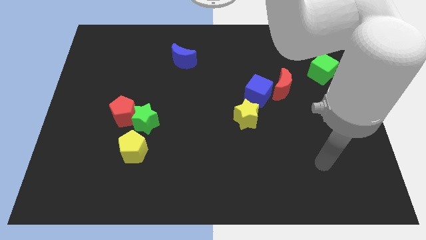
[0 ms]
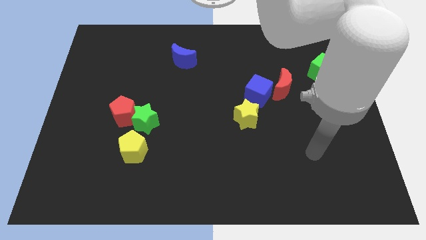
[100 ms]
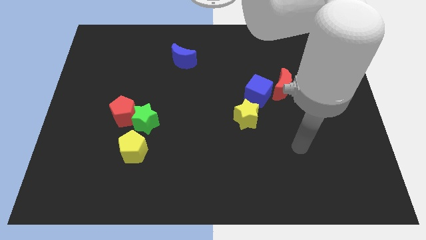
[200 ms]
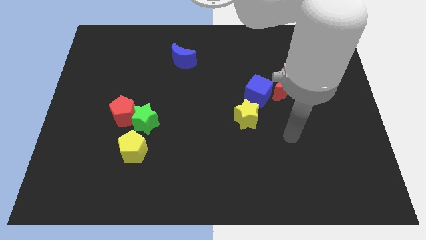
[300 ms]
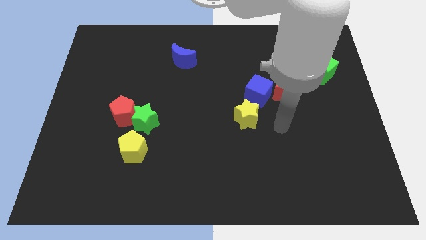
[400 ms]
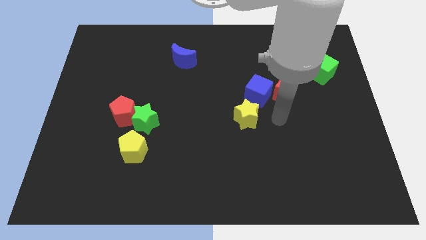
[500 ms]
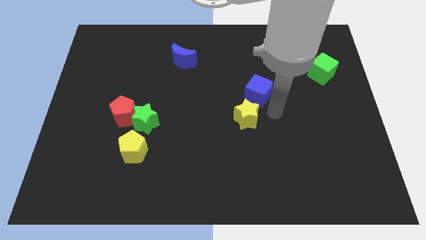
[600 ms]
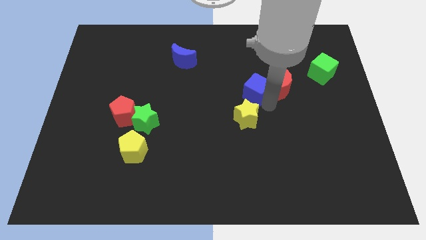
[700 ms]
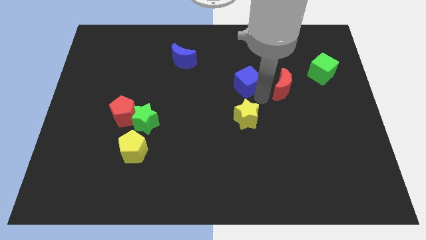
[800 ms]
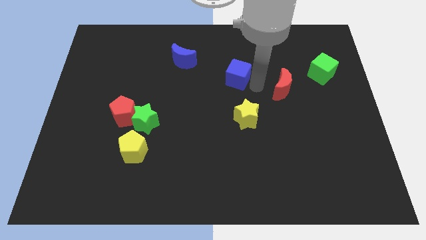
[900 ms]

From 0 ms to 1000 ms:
move the red moon away from the blue cube

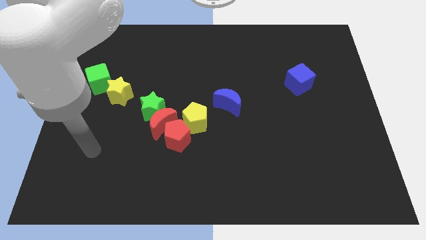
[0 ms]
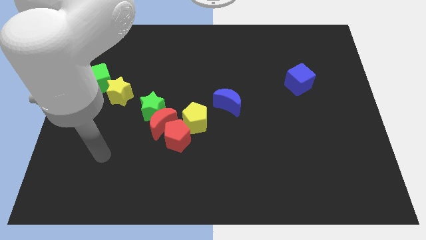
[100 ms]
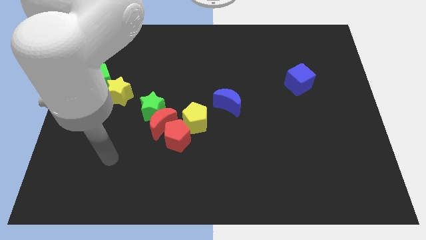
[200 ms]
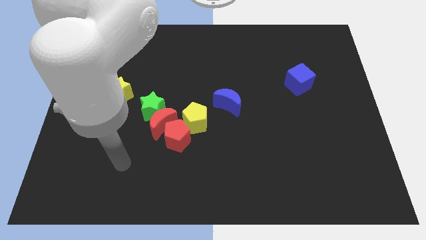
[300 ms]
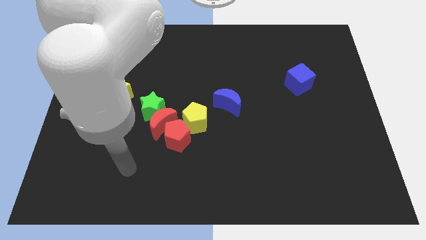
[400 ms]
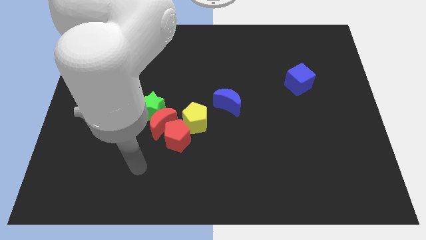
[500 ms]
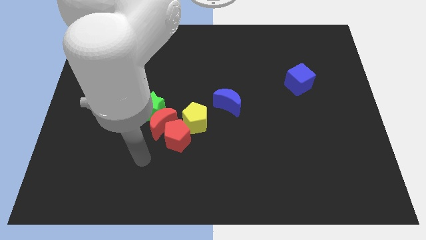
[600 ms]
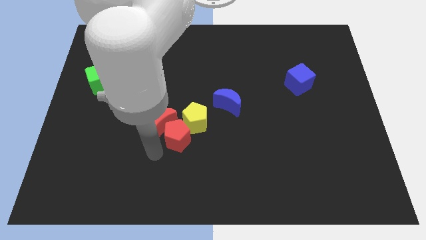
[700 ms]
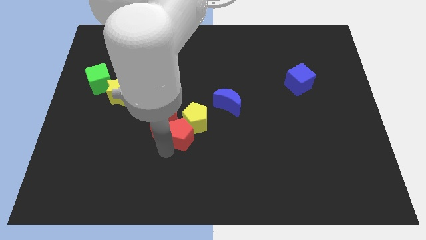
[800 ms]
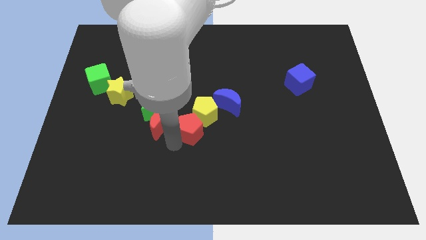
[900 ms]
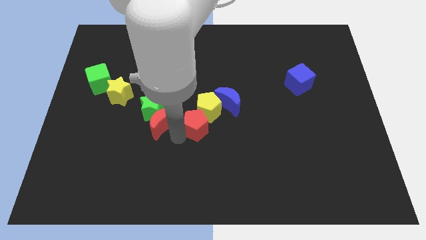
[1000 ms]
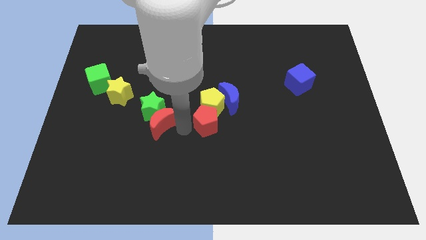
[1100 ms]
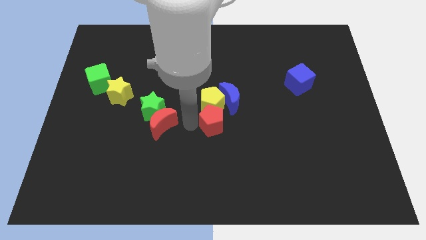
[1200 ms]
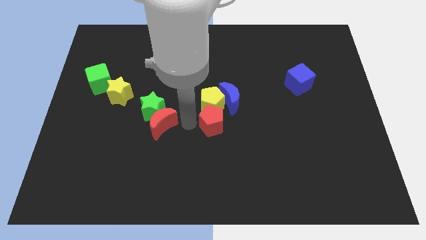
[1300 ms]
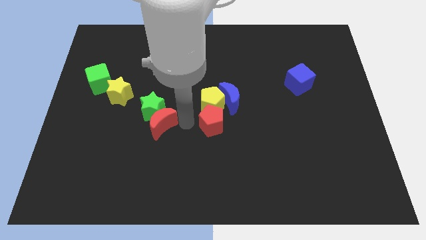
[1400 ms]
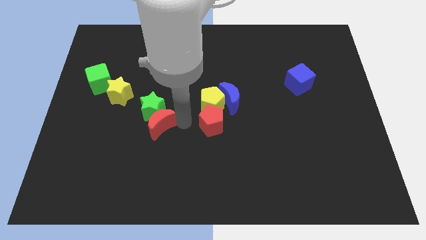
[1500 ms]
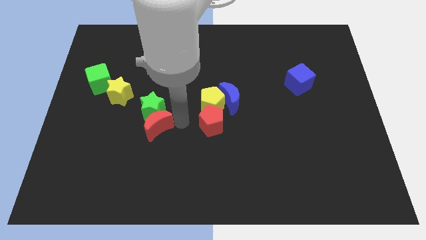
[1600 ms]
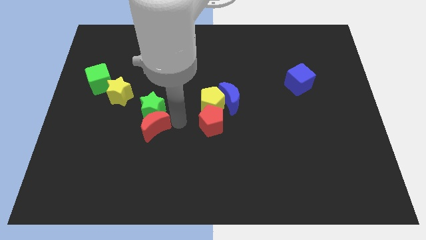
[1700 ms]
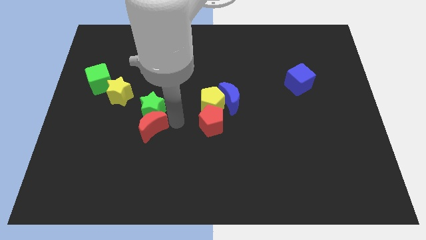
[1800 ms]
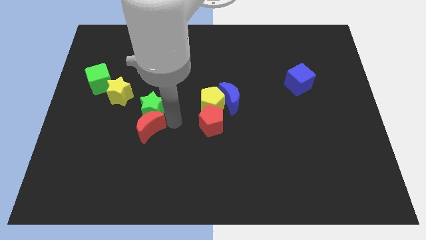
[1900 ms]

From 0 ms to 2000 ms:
pull the red moon apart from the green star, red pentagon, and yellow pentagon

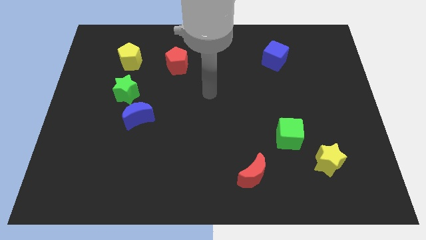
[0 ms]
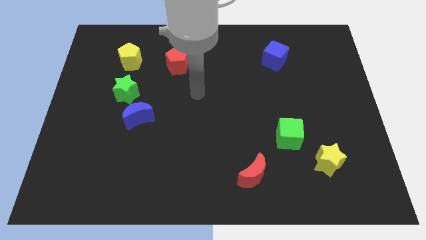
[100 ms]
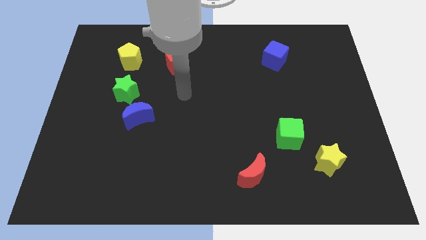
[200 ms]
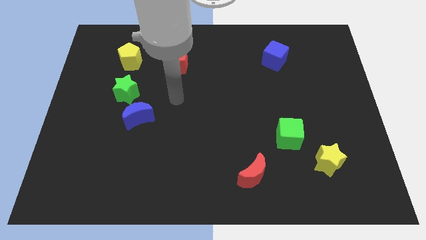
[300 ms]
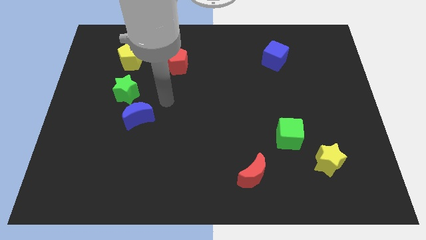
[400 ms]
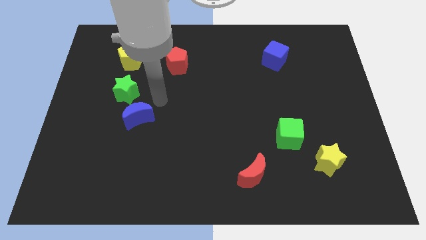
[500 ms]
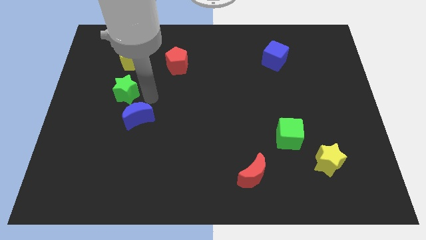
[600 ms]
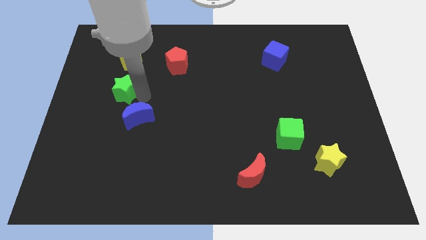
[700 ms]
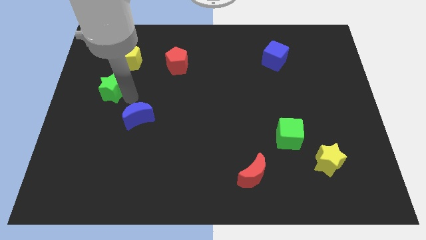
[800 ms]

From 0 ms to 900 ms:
separate the blue moon from the green star

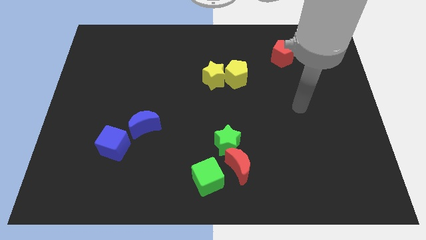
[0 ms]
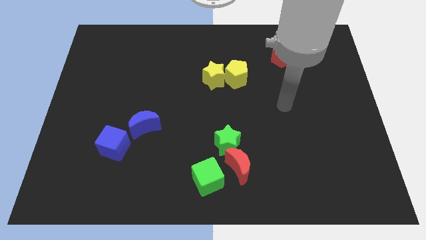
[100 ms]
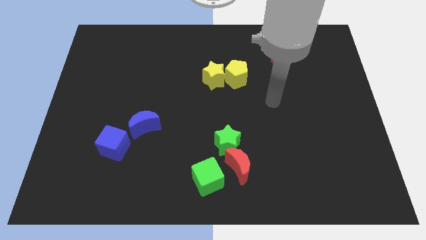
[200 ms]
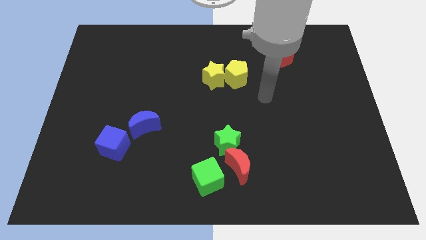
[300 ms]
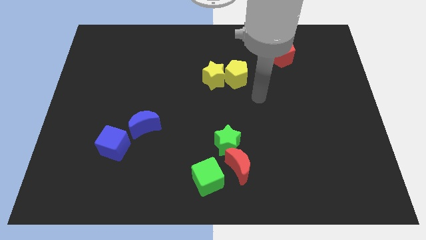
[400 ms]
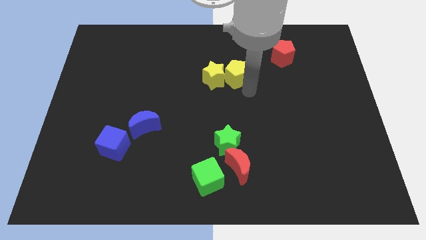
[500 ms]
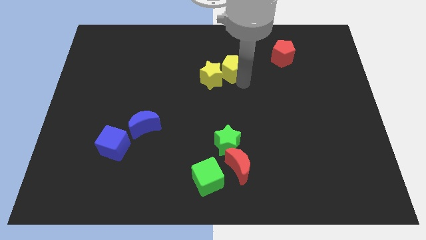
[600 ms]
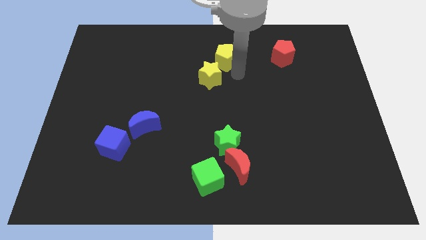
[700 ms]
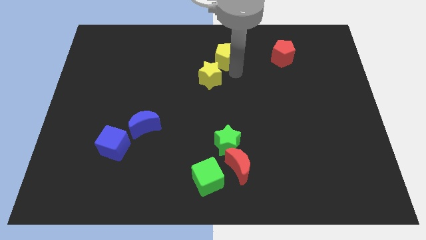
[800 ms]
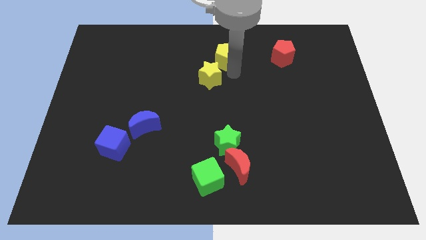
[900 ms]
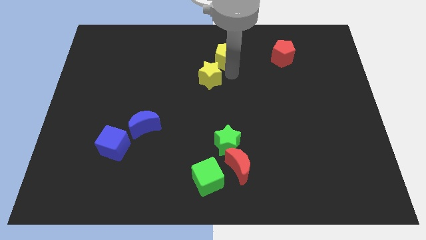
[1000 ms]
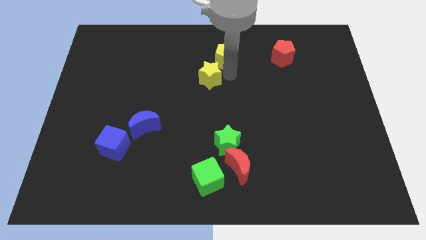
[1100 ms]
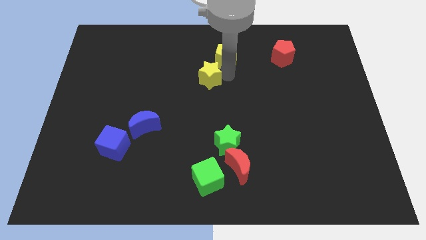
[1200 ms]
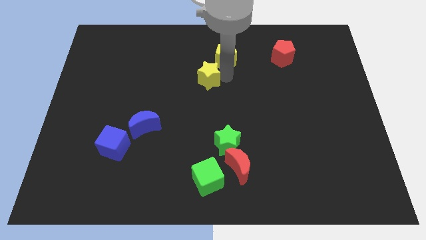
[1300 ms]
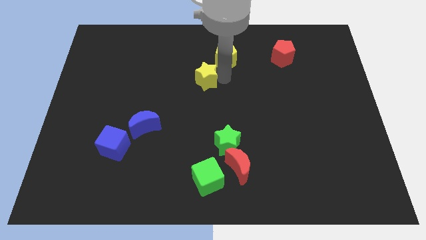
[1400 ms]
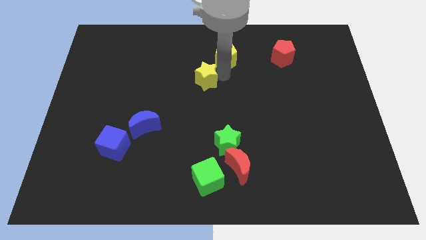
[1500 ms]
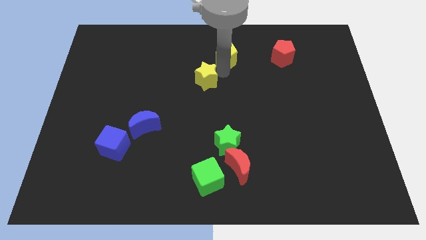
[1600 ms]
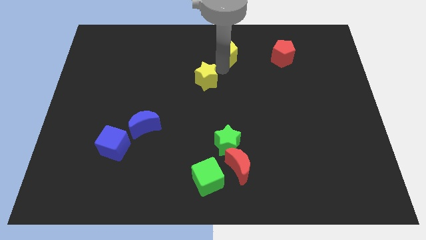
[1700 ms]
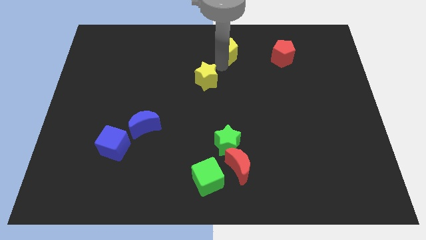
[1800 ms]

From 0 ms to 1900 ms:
separate the yellow star from the yellow pentagon

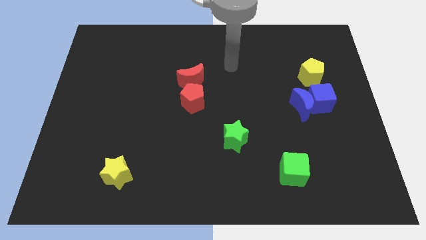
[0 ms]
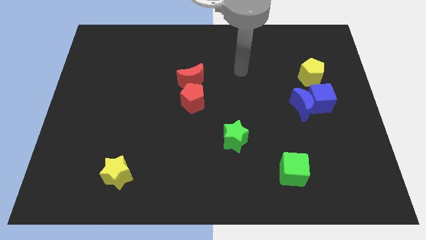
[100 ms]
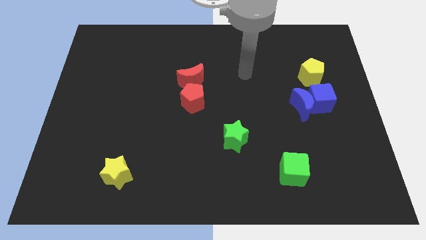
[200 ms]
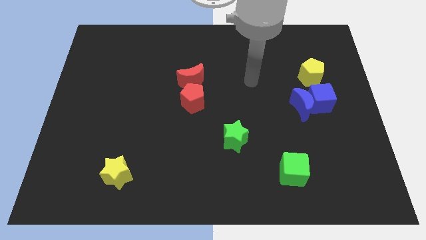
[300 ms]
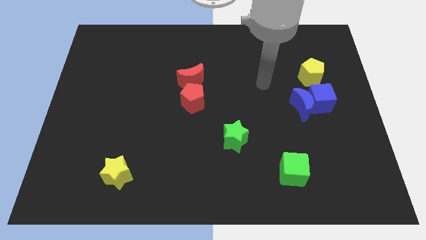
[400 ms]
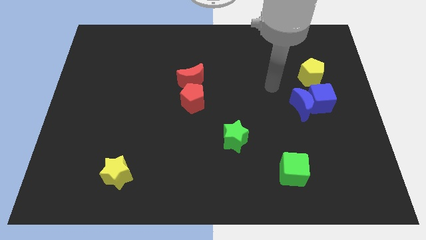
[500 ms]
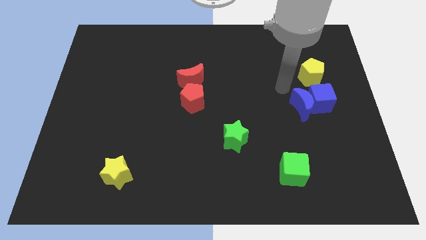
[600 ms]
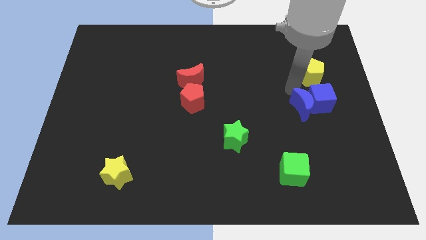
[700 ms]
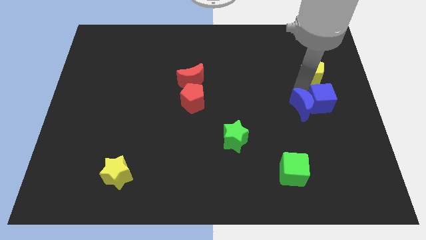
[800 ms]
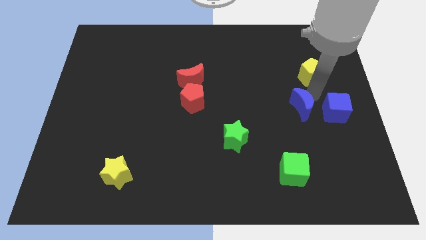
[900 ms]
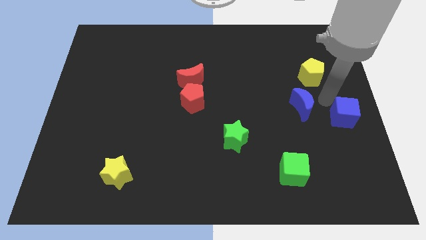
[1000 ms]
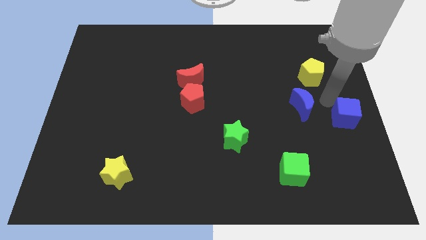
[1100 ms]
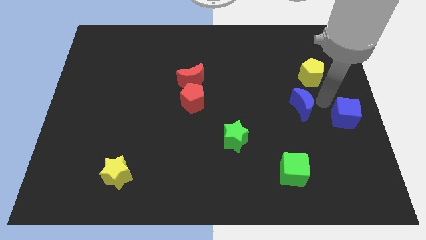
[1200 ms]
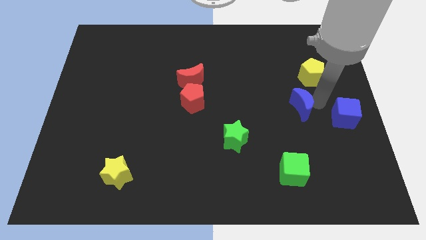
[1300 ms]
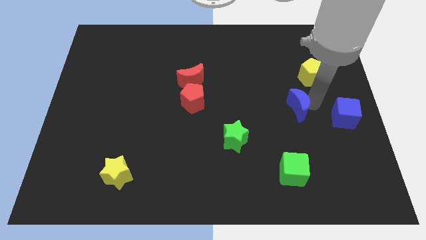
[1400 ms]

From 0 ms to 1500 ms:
pull the blue moon apart from the blue cube

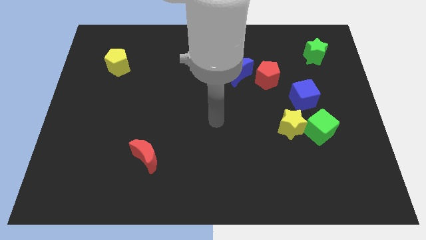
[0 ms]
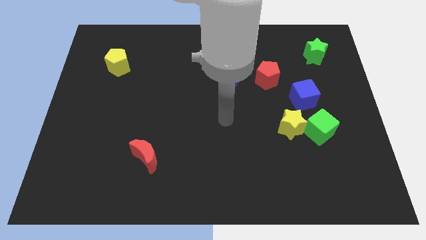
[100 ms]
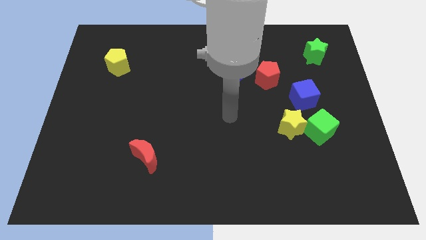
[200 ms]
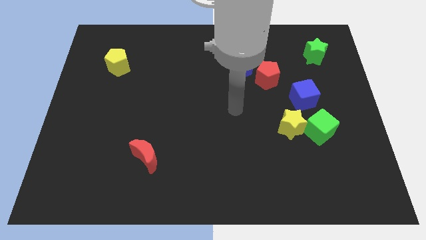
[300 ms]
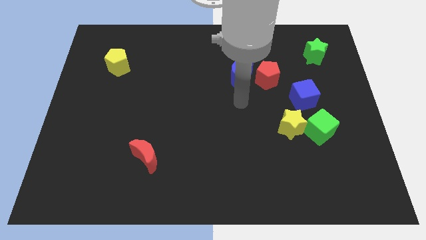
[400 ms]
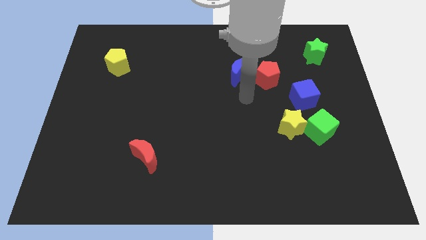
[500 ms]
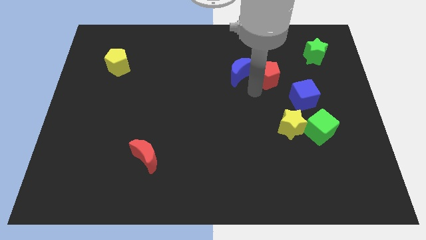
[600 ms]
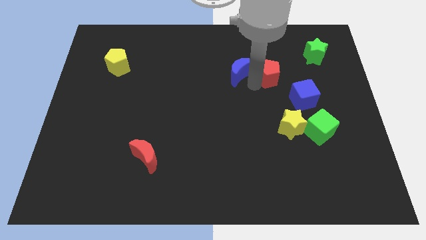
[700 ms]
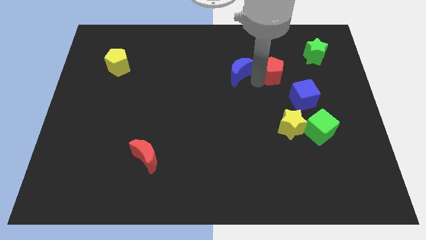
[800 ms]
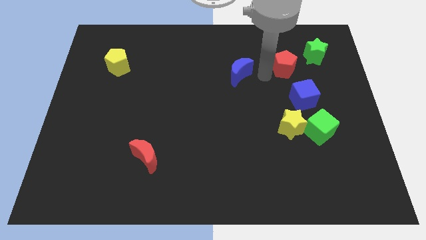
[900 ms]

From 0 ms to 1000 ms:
move the blue moon away from the red pentagon

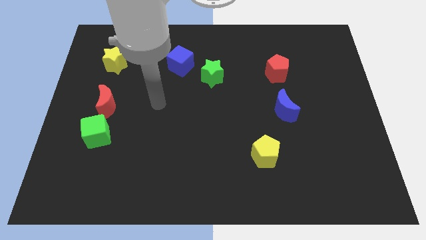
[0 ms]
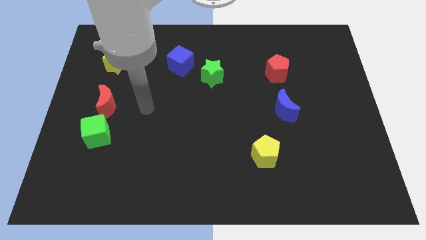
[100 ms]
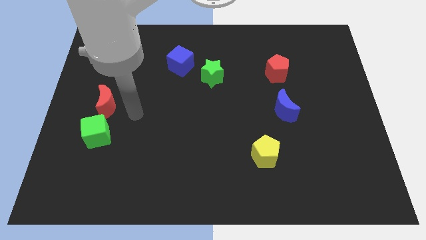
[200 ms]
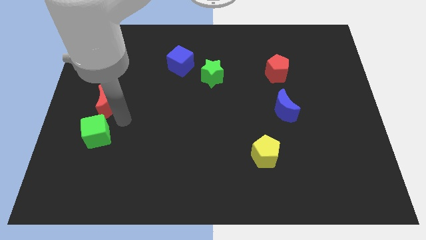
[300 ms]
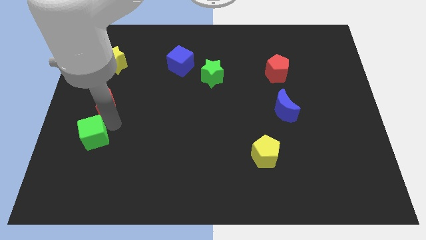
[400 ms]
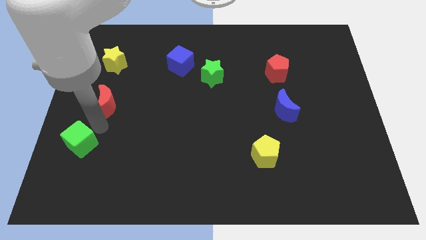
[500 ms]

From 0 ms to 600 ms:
separate the red moon from the green cube

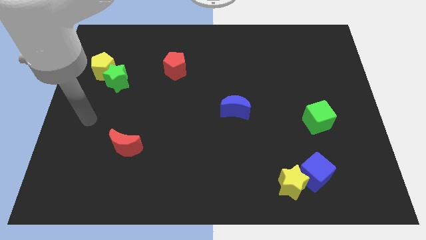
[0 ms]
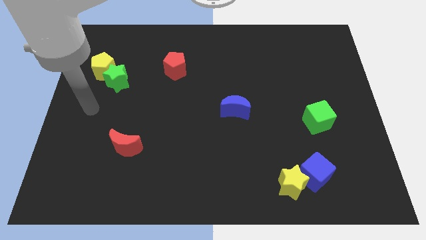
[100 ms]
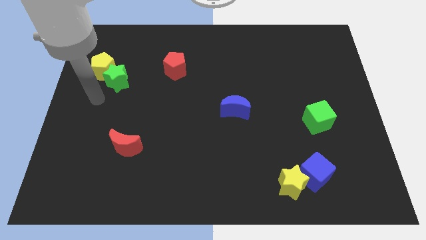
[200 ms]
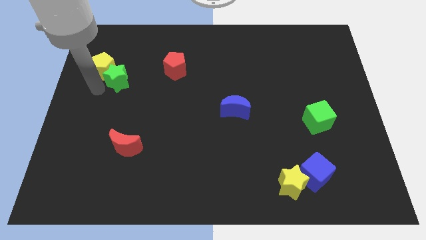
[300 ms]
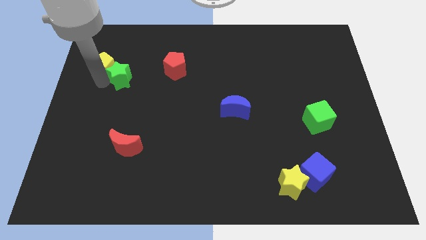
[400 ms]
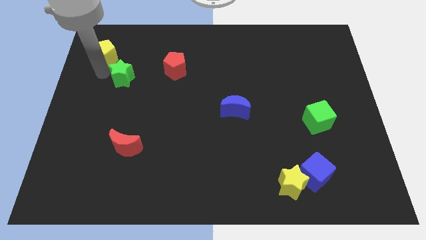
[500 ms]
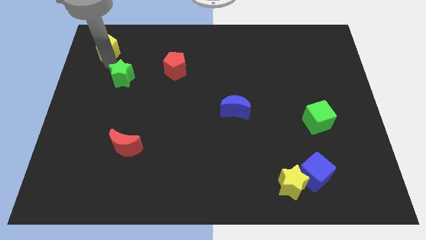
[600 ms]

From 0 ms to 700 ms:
move the green star away from the yellow pentagon
